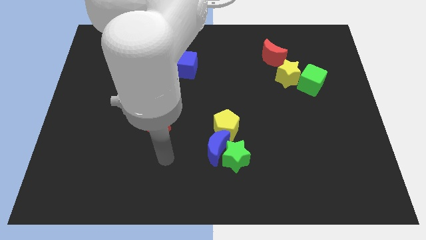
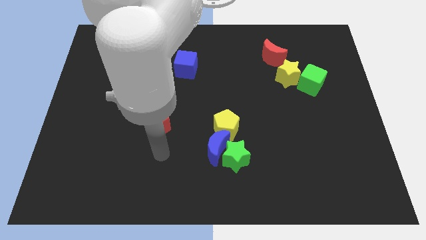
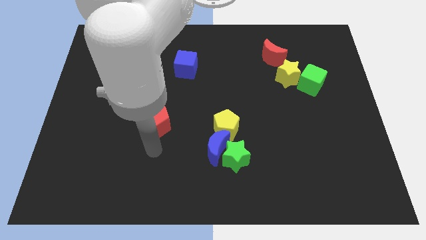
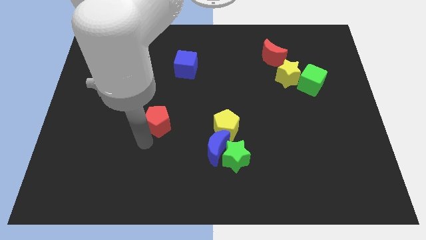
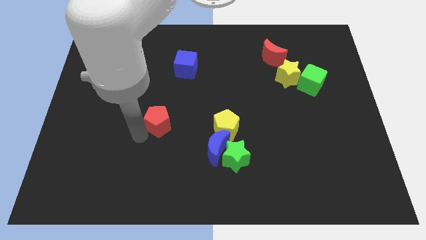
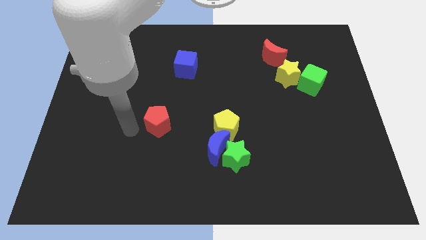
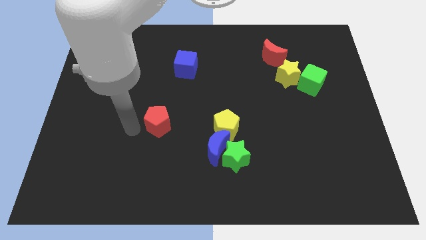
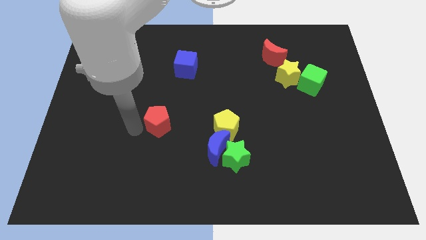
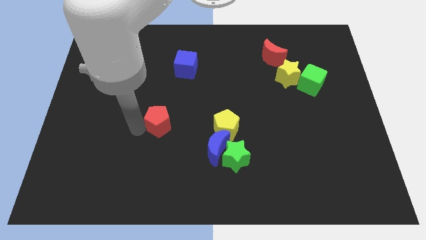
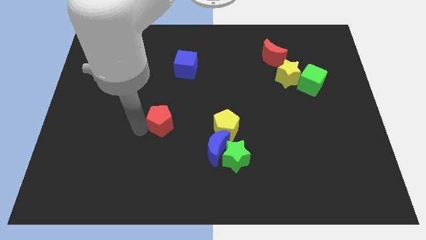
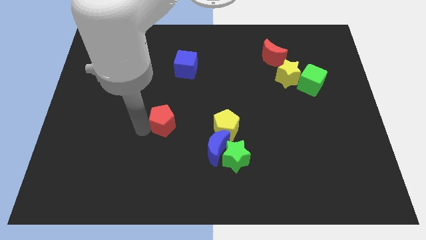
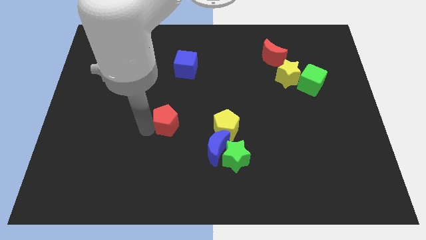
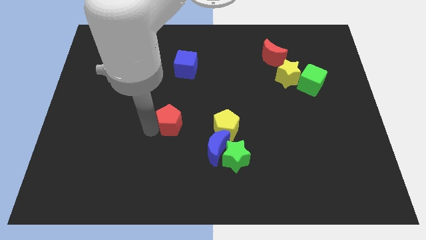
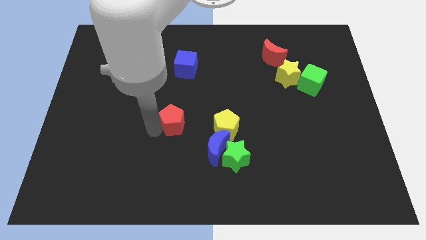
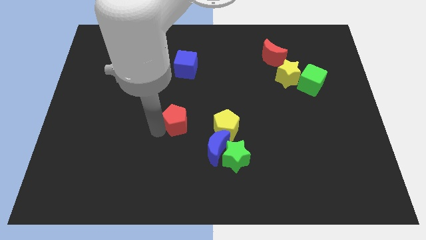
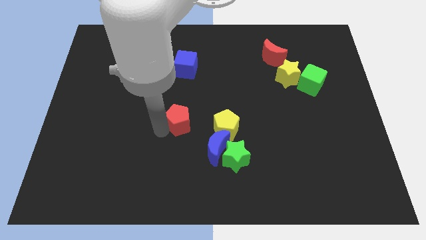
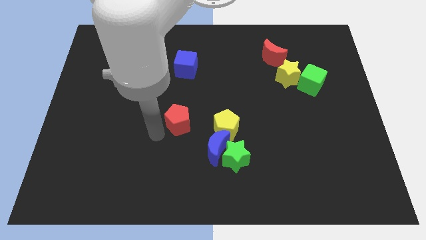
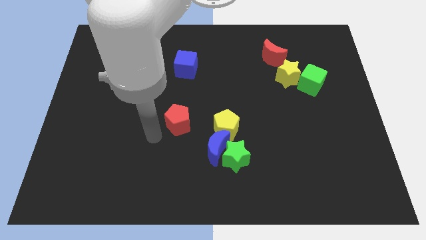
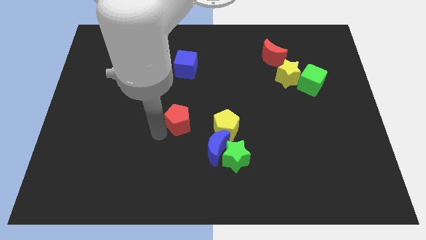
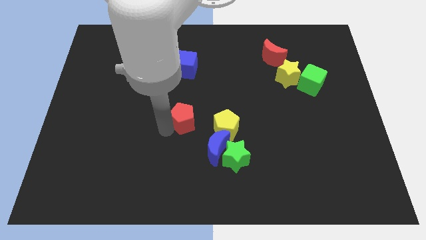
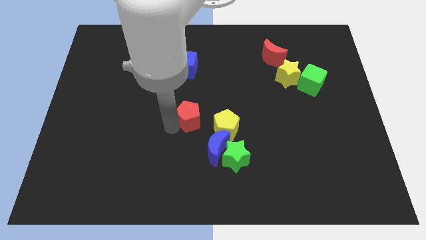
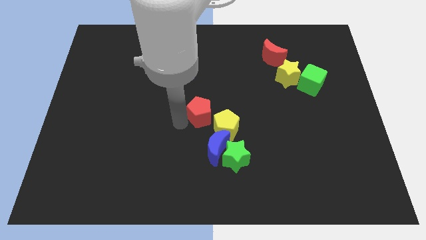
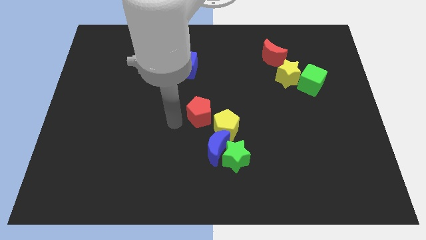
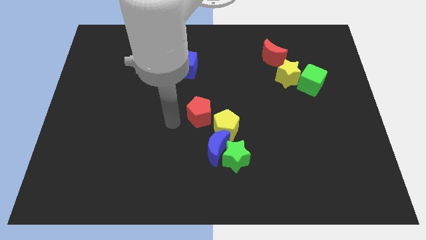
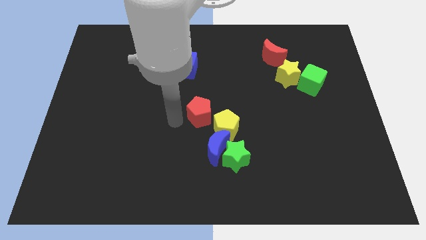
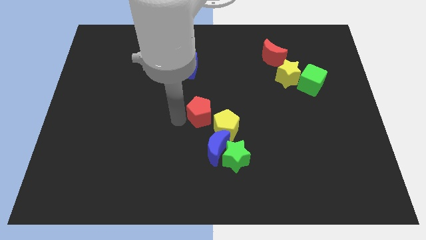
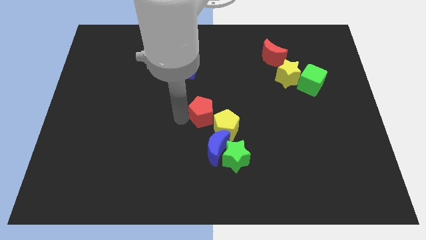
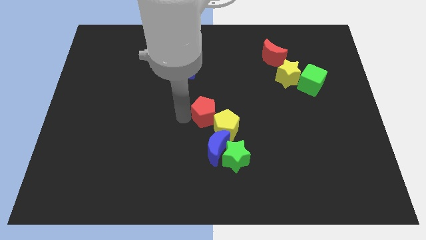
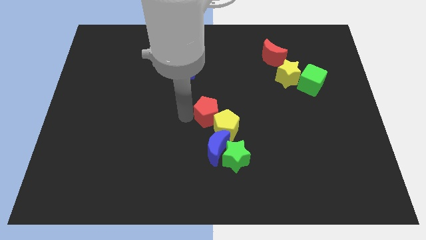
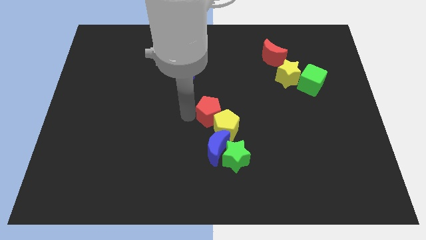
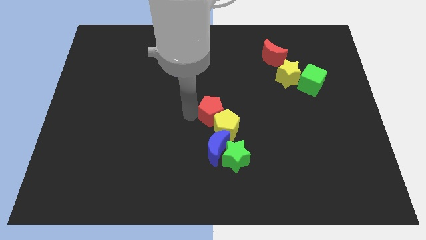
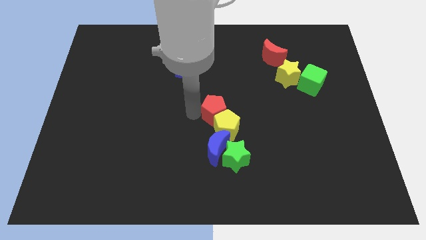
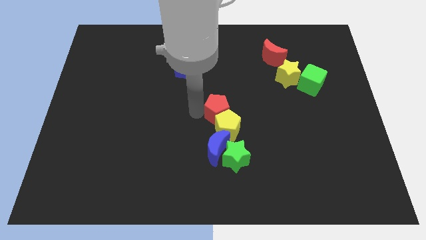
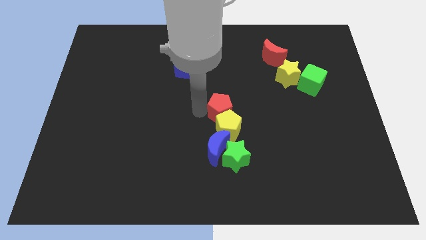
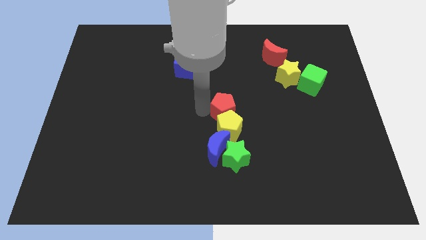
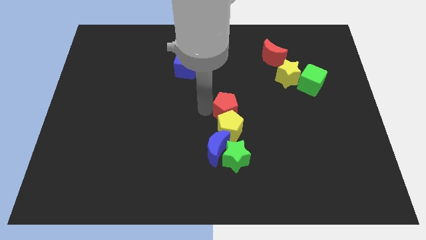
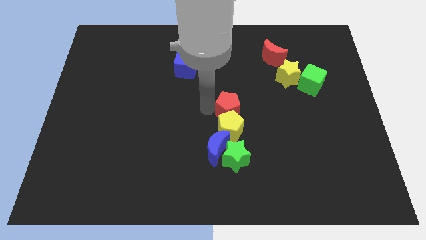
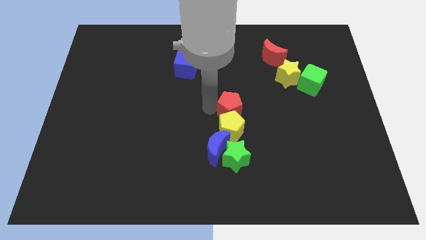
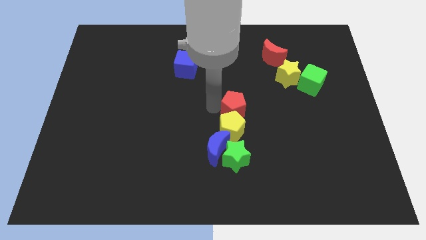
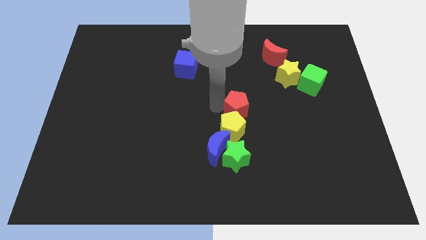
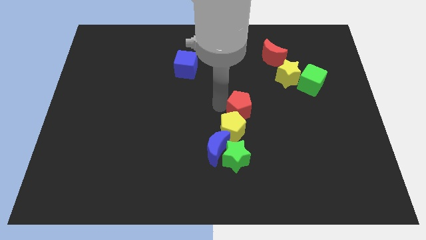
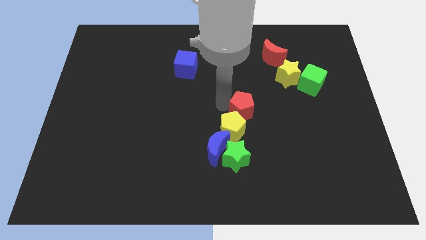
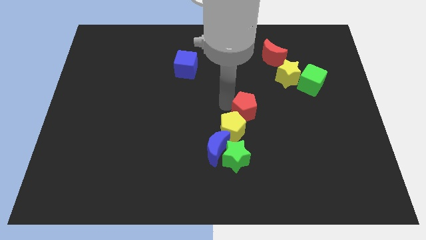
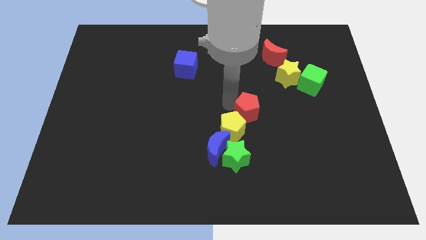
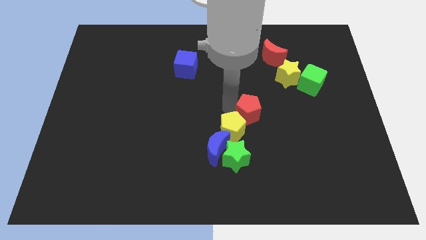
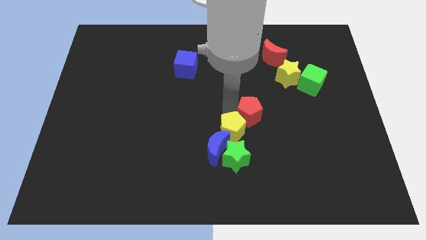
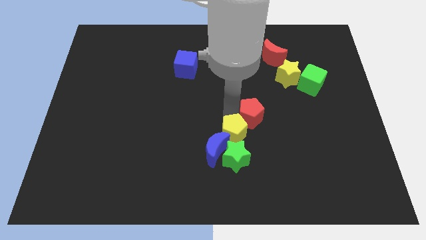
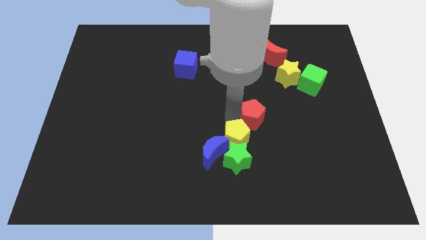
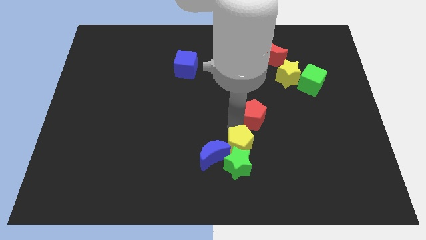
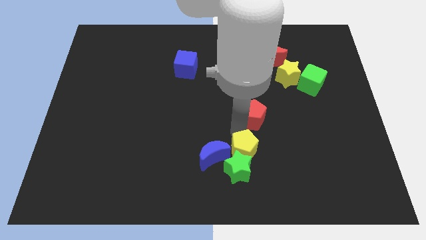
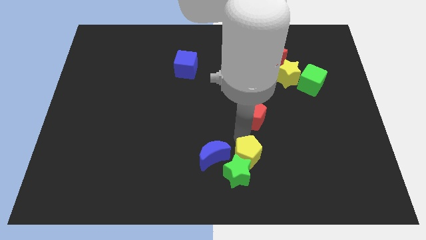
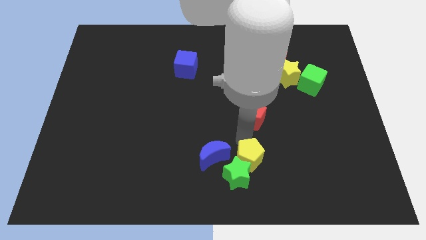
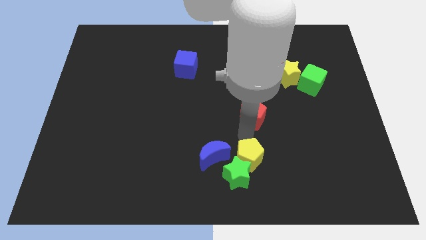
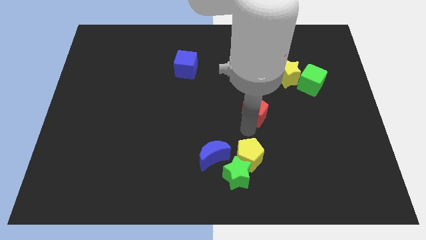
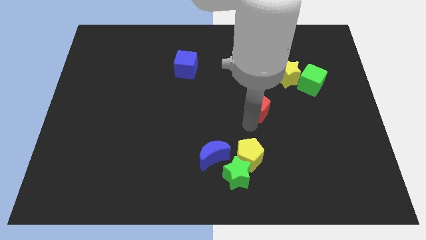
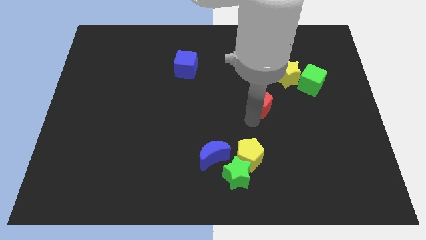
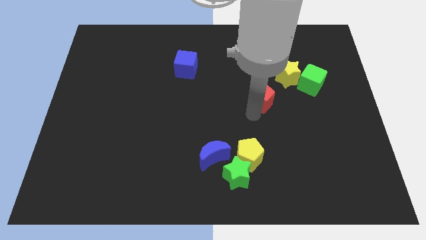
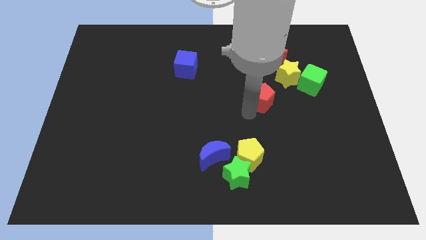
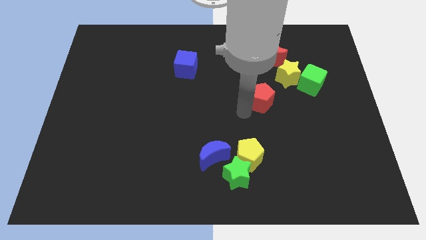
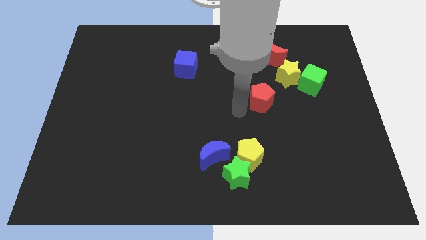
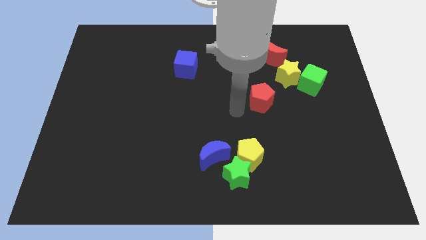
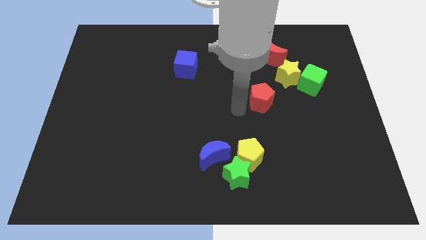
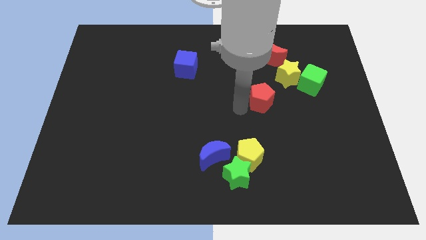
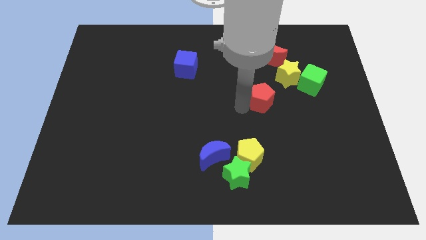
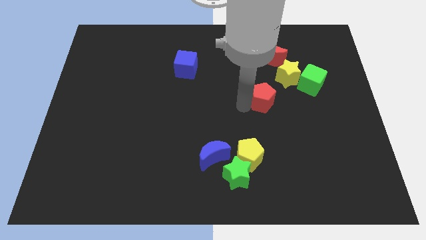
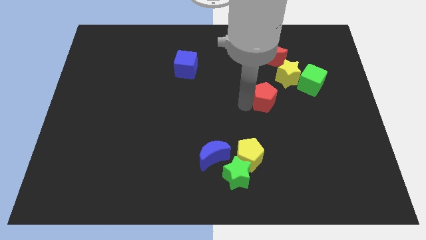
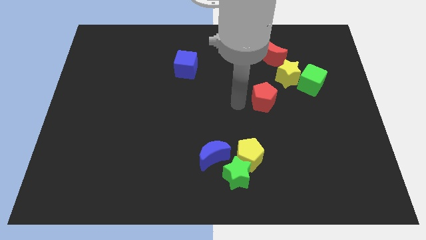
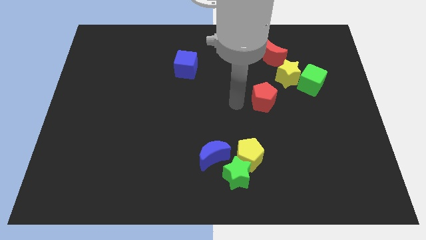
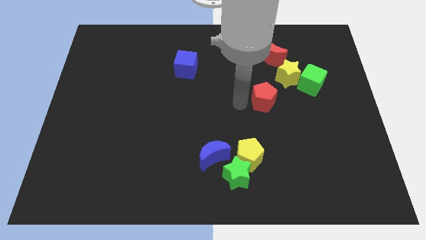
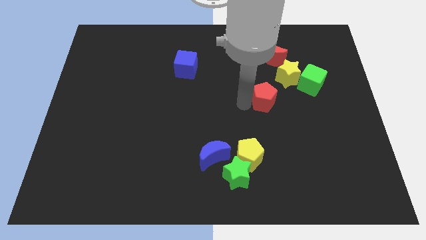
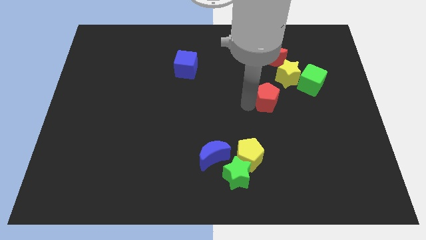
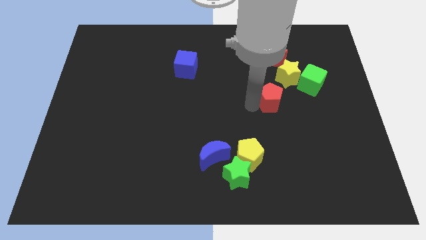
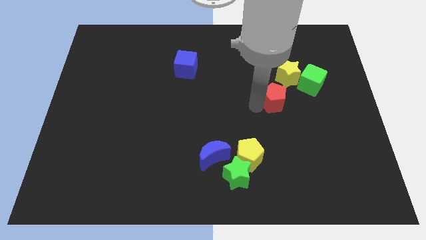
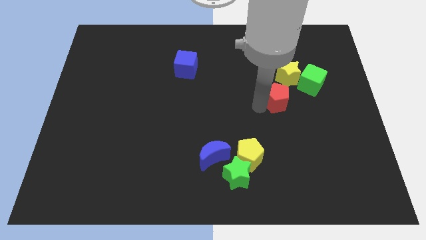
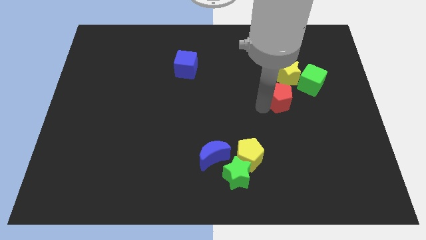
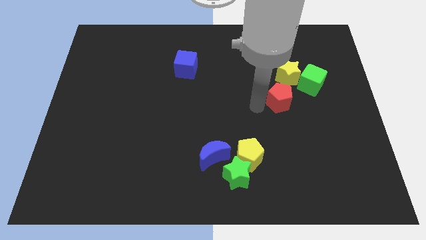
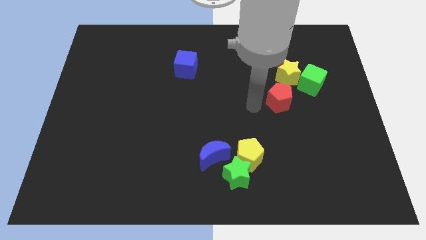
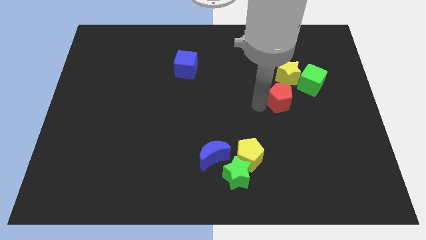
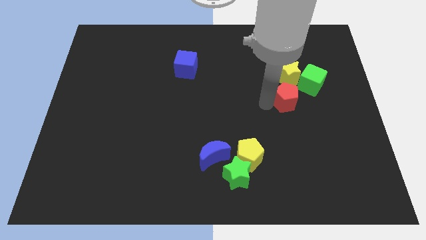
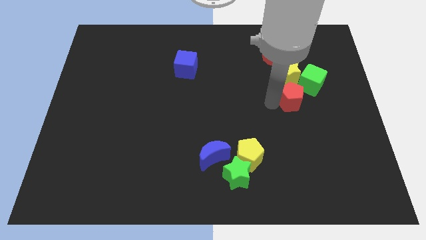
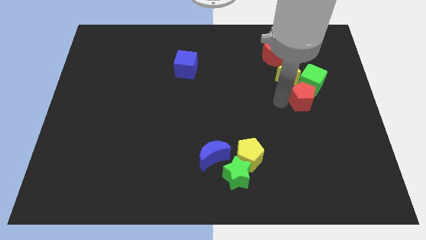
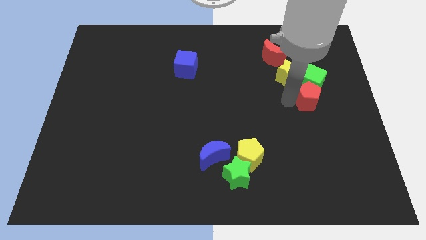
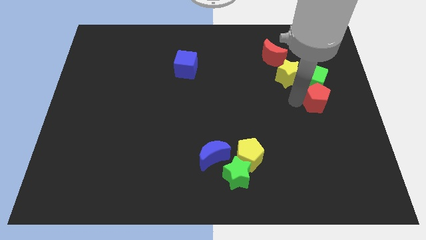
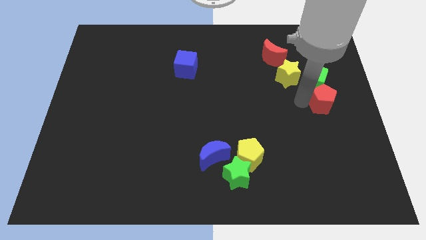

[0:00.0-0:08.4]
slide the red pentagon to the right side of the board

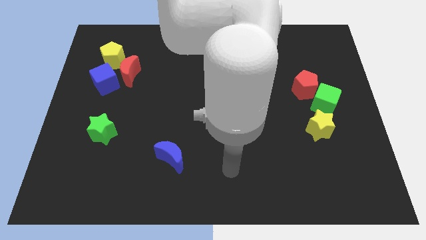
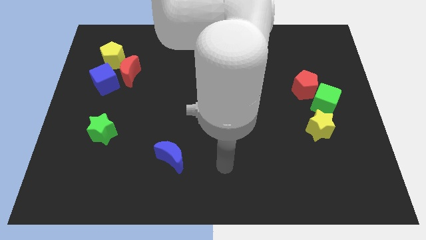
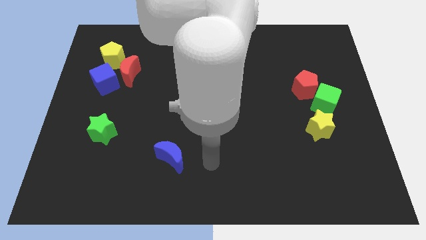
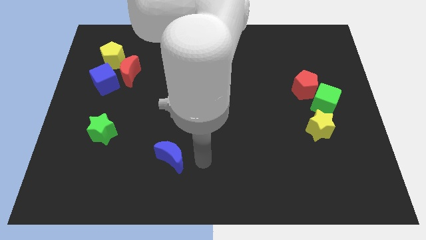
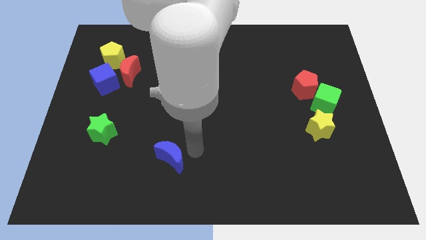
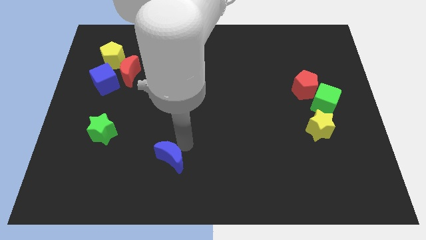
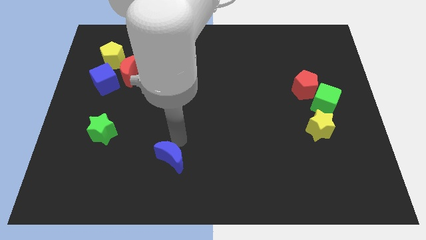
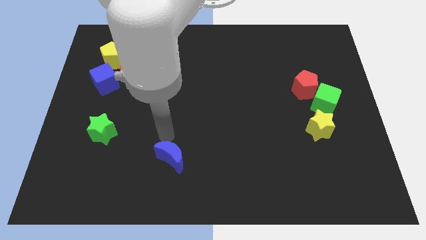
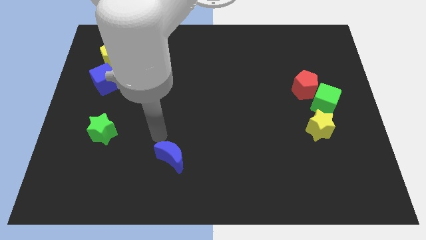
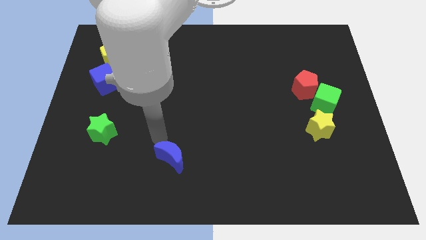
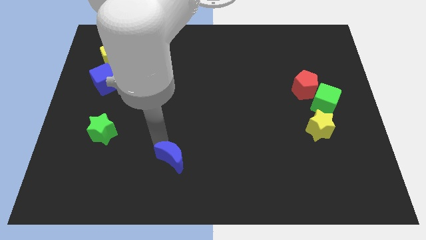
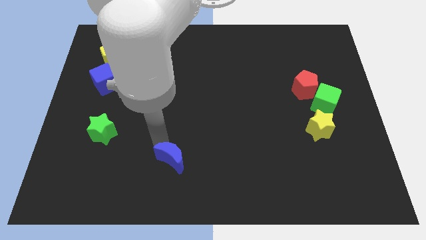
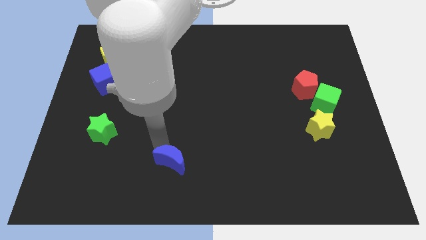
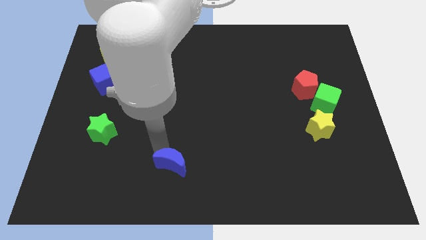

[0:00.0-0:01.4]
move the blue moon to the bottom
